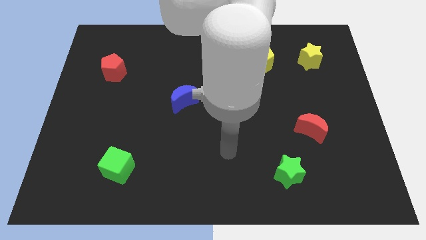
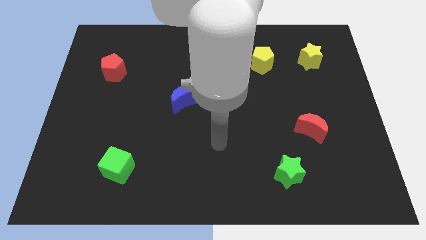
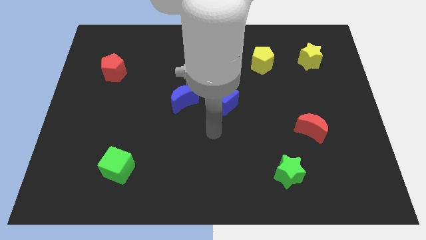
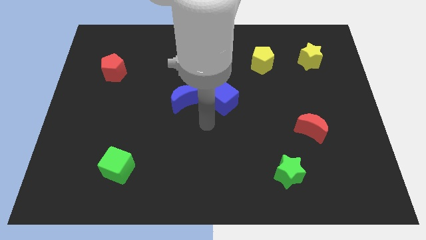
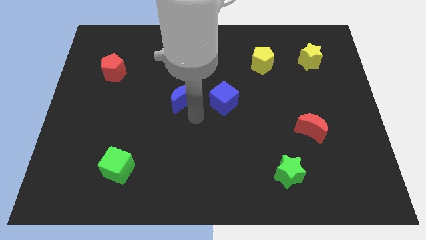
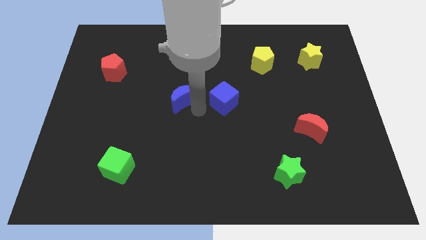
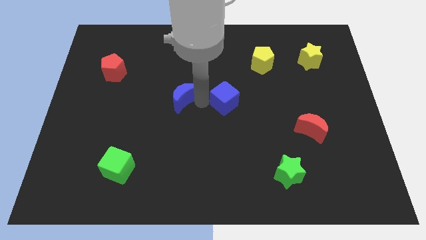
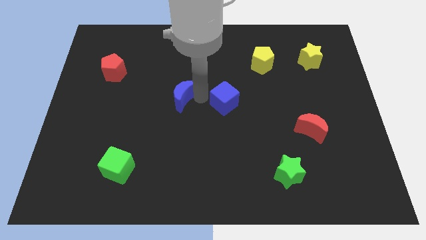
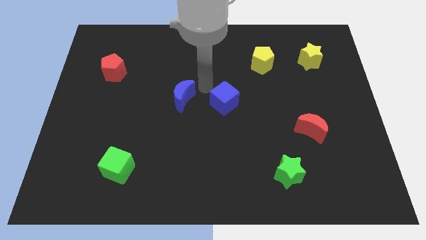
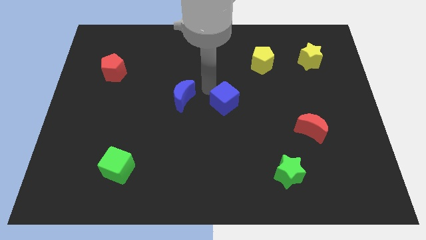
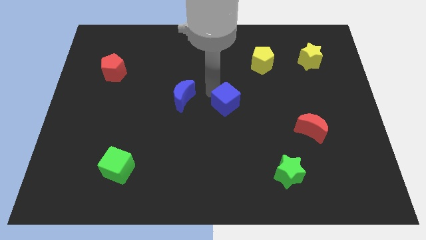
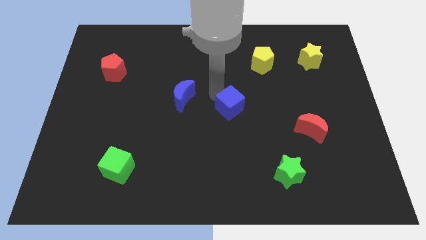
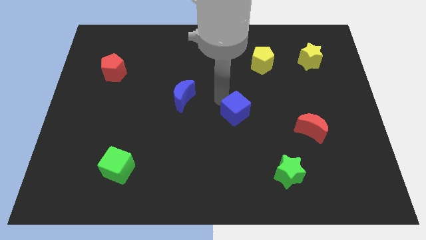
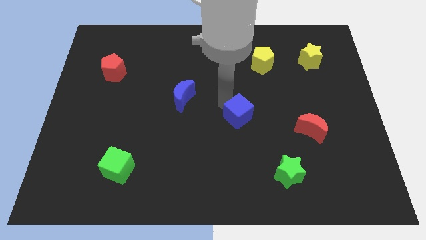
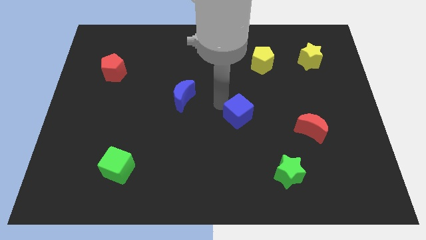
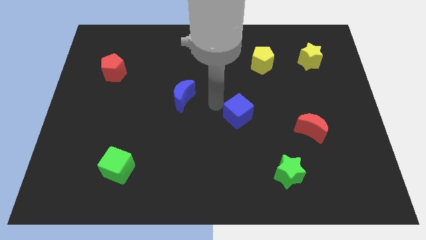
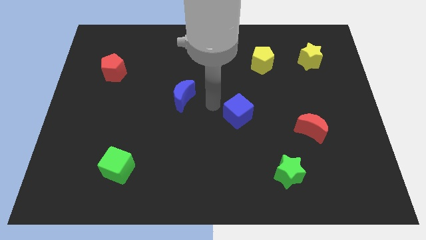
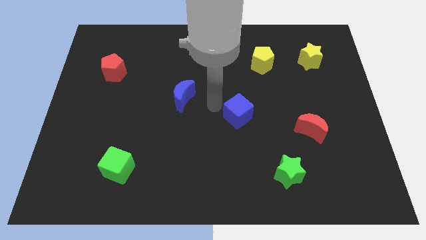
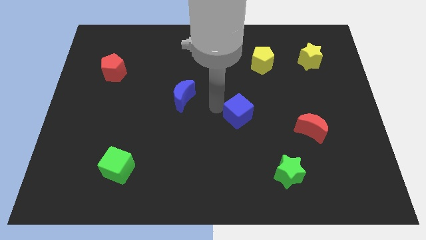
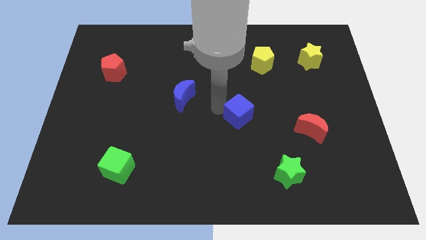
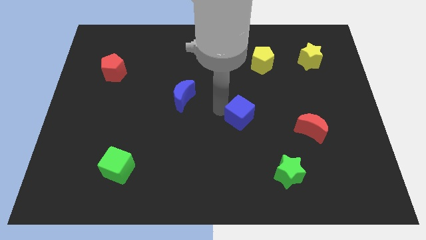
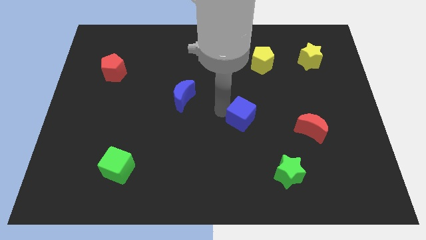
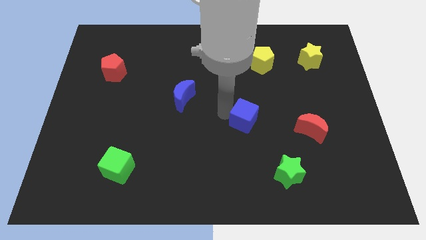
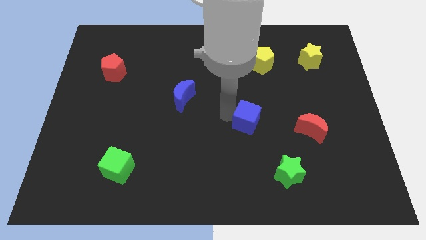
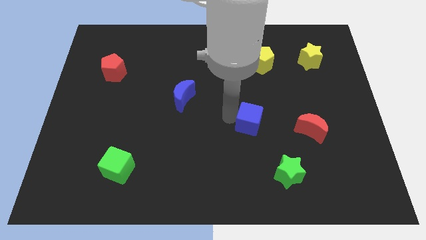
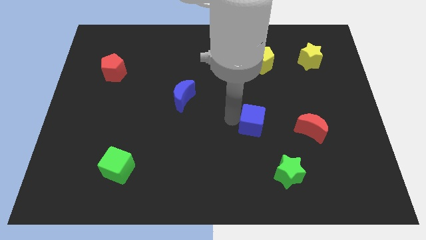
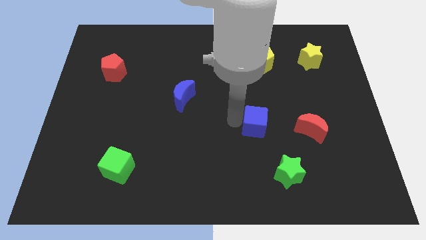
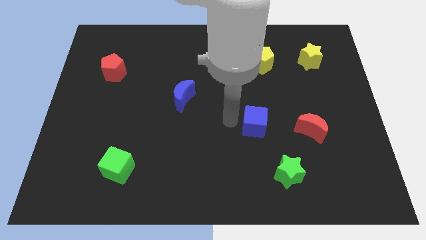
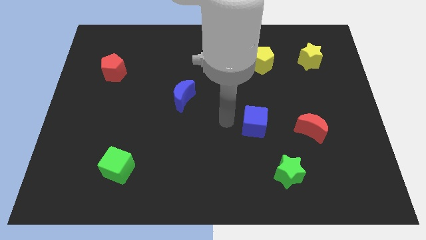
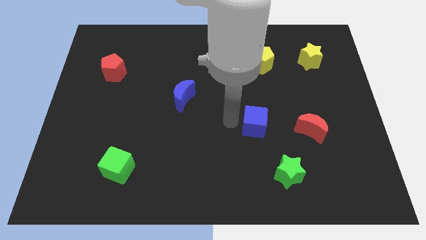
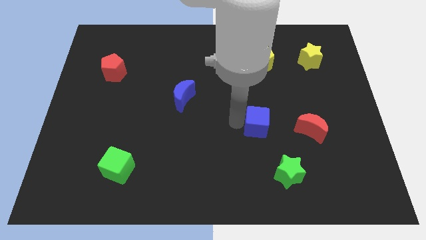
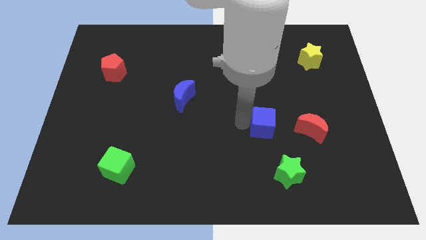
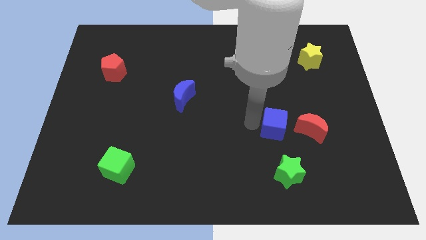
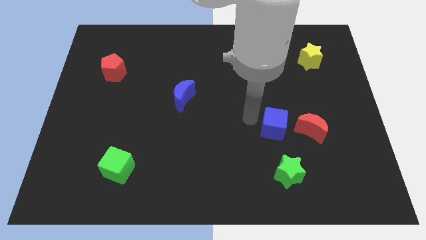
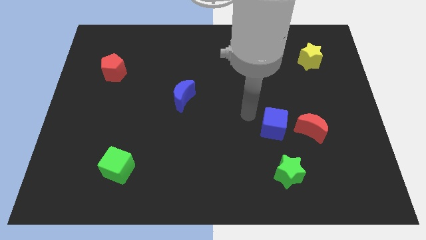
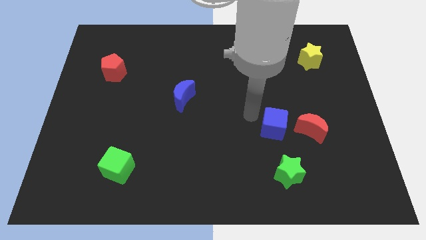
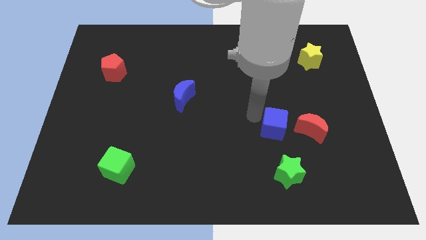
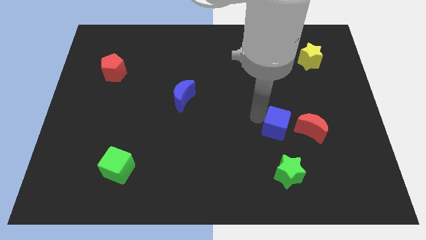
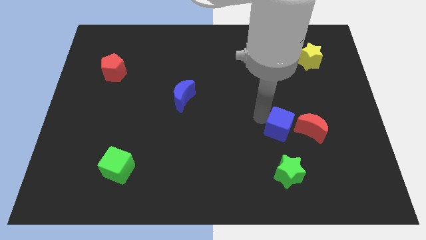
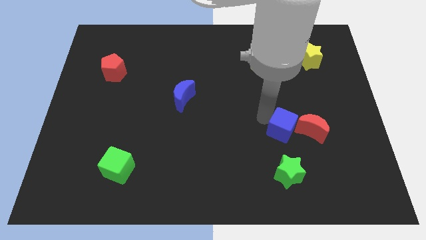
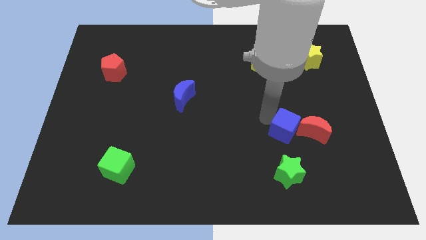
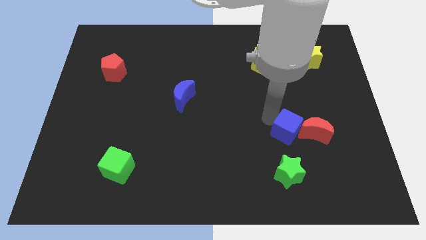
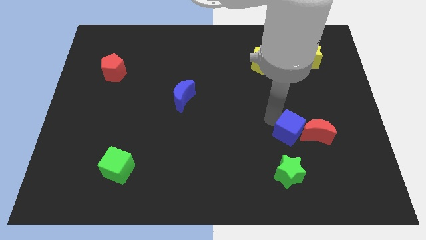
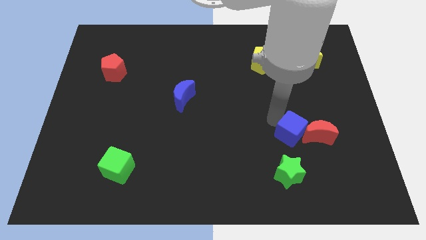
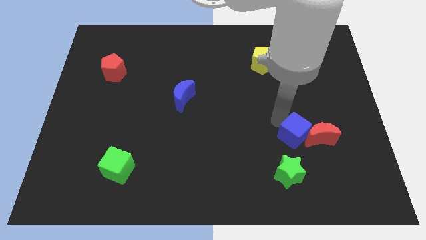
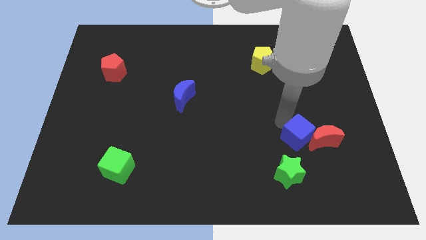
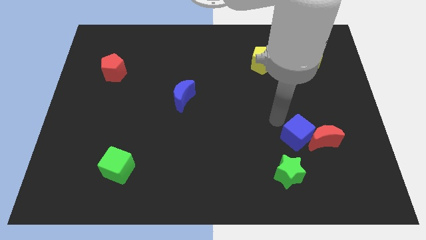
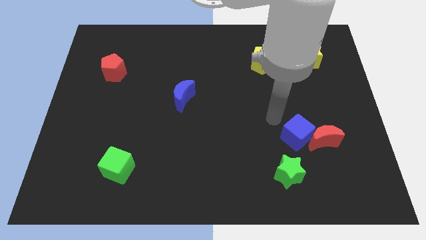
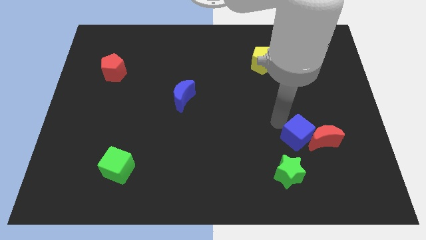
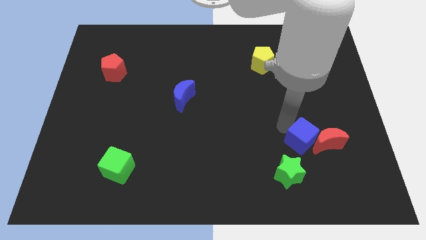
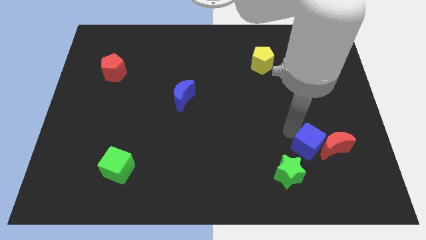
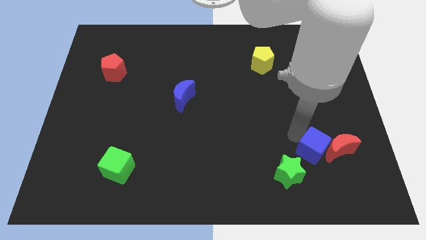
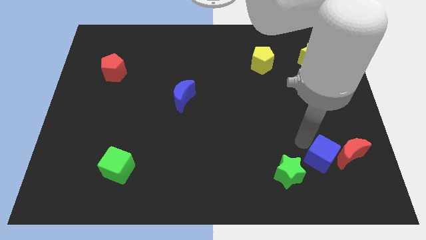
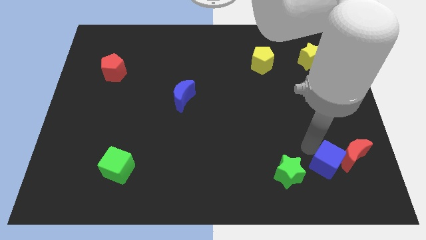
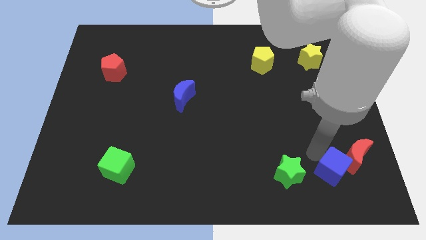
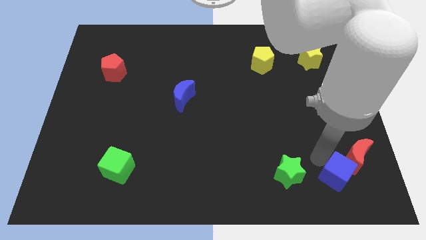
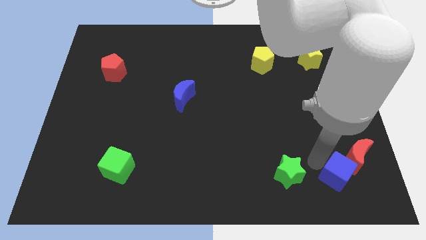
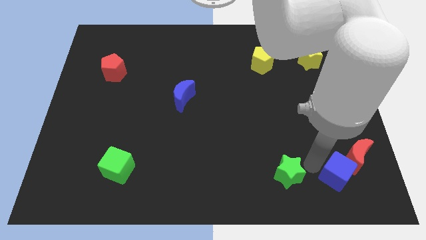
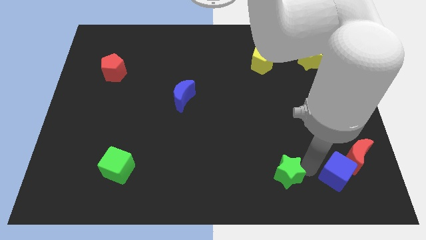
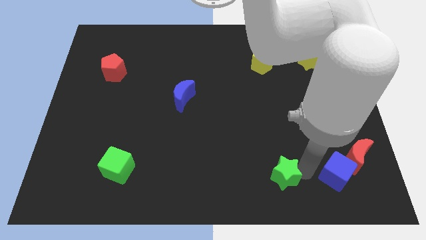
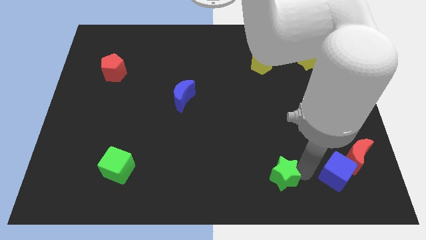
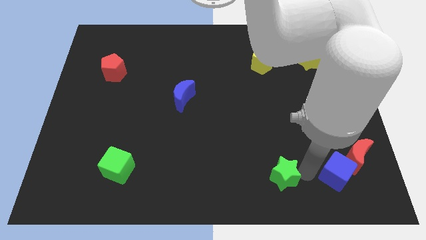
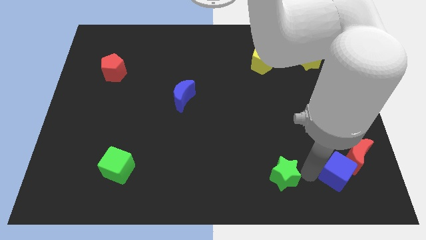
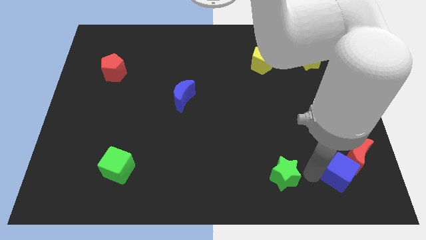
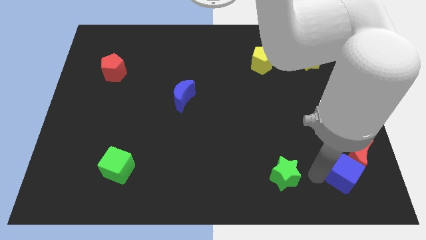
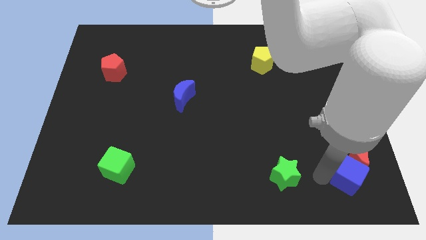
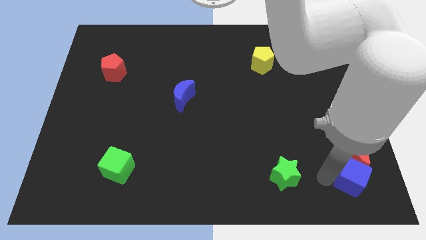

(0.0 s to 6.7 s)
push the blue cube to the bottom right
